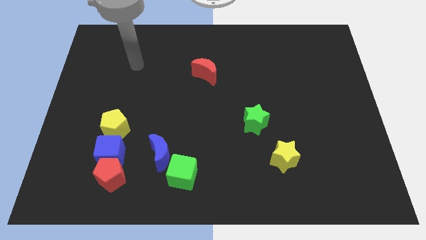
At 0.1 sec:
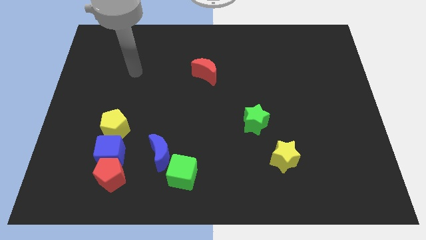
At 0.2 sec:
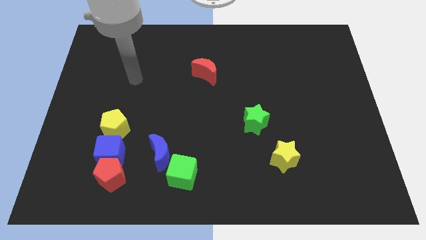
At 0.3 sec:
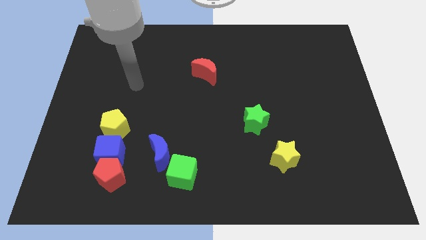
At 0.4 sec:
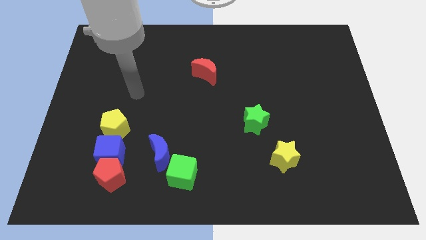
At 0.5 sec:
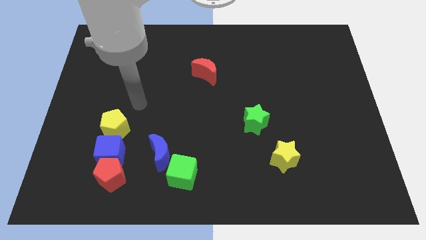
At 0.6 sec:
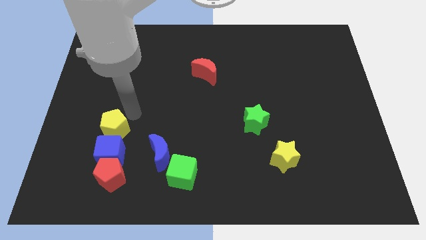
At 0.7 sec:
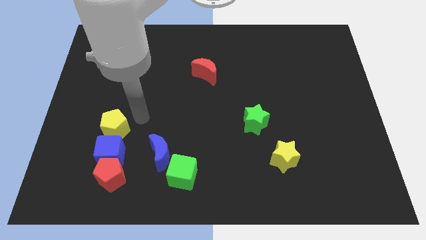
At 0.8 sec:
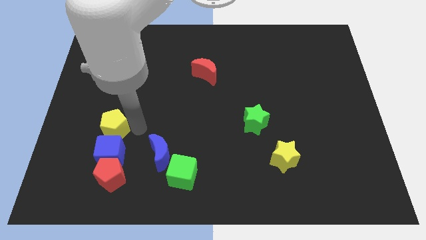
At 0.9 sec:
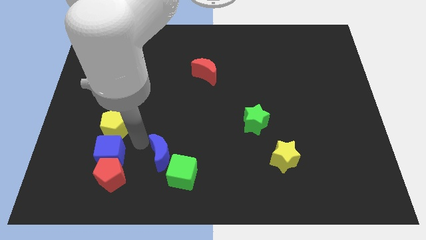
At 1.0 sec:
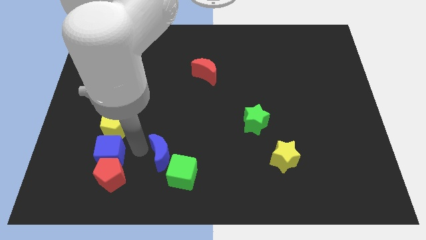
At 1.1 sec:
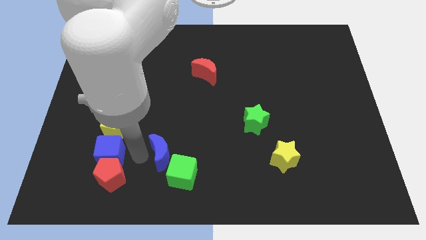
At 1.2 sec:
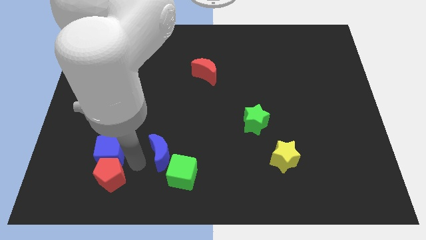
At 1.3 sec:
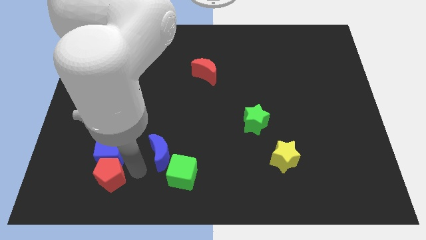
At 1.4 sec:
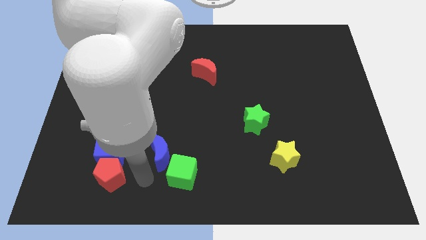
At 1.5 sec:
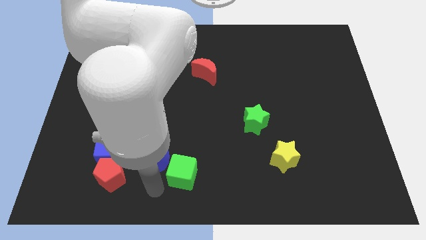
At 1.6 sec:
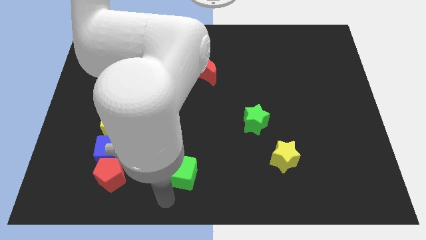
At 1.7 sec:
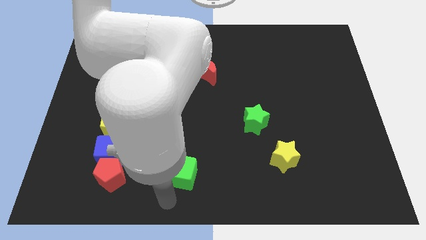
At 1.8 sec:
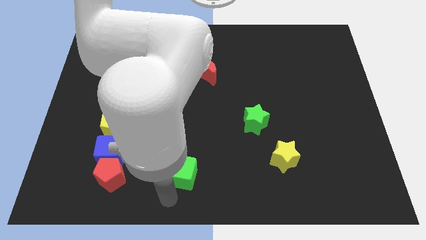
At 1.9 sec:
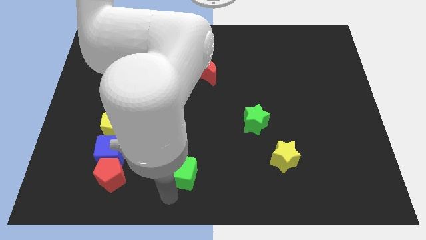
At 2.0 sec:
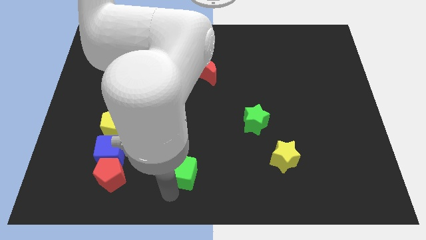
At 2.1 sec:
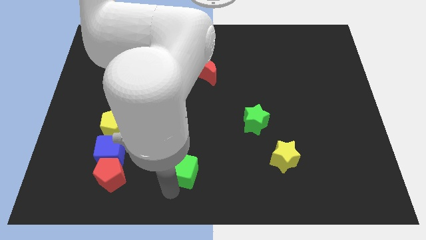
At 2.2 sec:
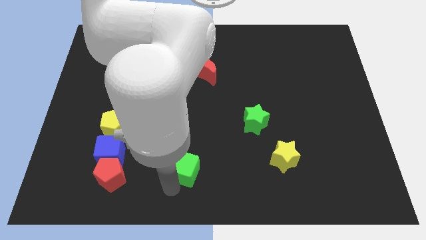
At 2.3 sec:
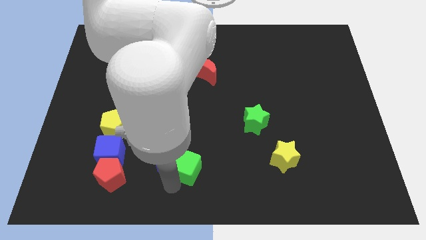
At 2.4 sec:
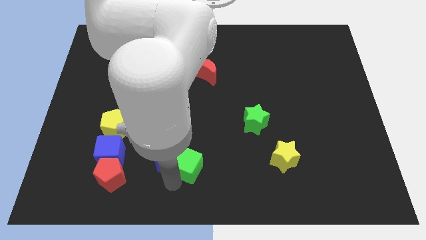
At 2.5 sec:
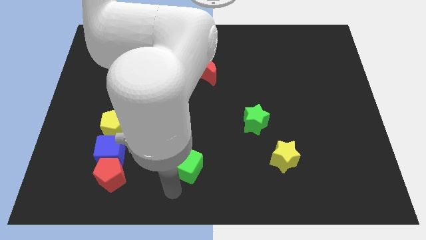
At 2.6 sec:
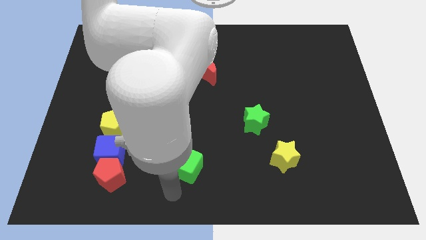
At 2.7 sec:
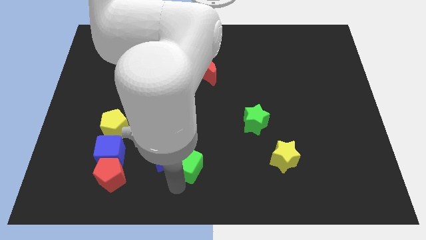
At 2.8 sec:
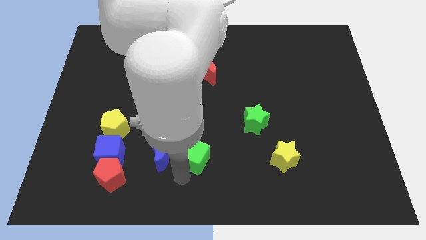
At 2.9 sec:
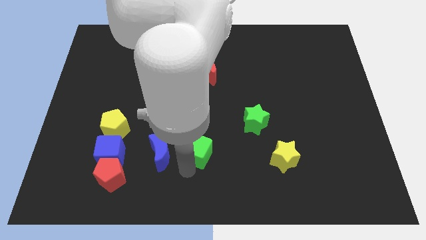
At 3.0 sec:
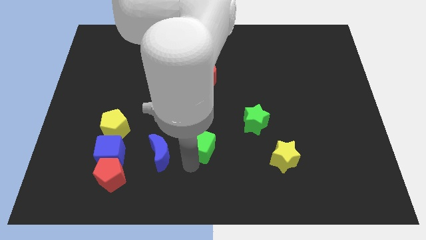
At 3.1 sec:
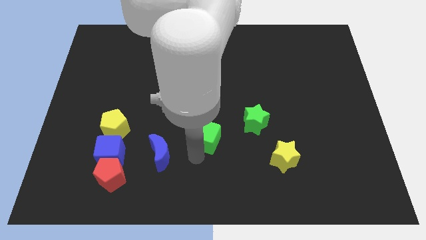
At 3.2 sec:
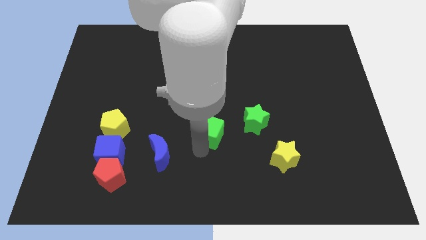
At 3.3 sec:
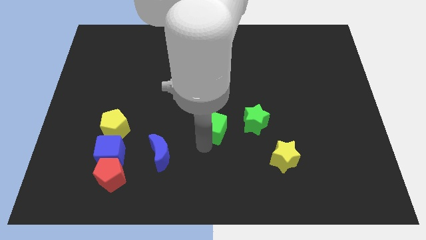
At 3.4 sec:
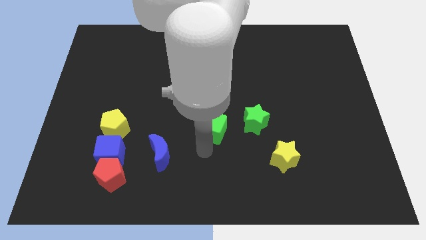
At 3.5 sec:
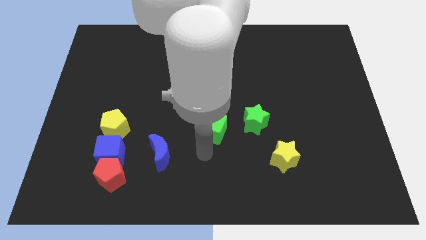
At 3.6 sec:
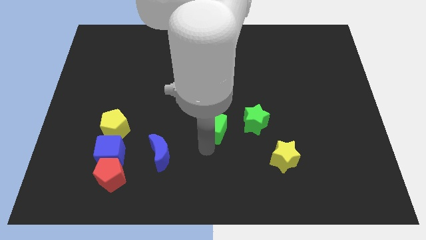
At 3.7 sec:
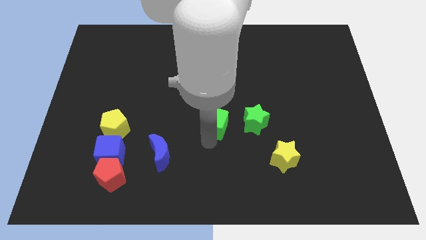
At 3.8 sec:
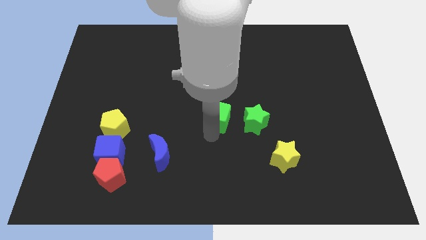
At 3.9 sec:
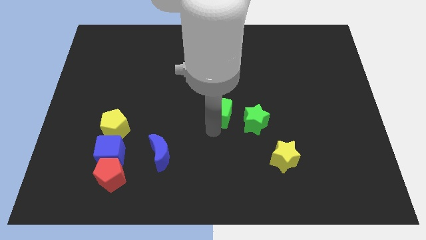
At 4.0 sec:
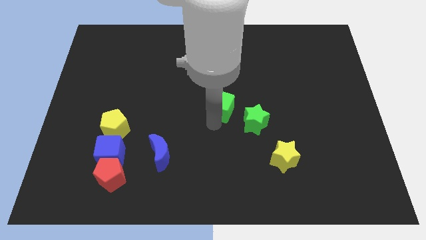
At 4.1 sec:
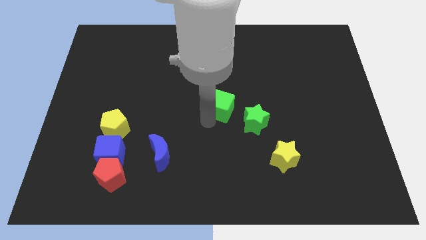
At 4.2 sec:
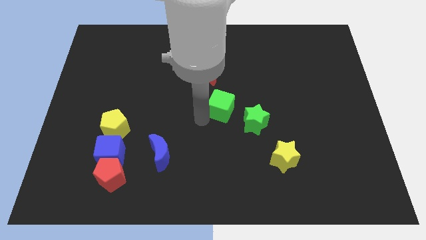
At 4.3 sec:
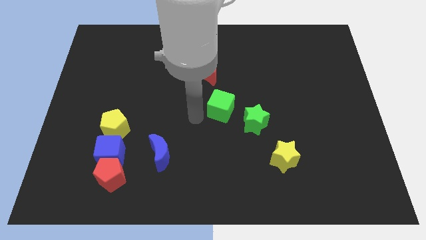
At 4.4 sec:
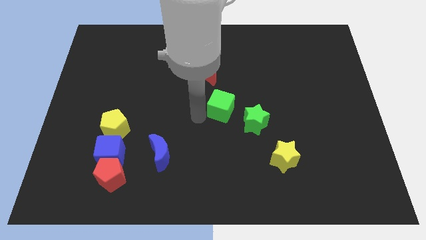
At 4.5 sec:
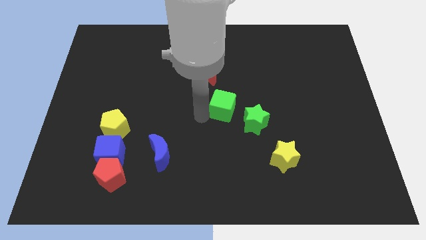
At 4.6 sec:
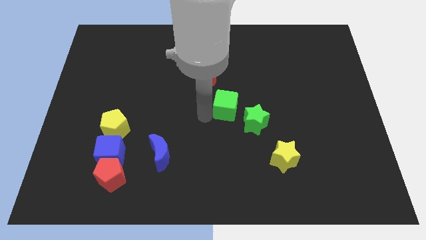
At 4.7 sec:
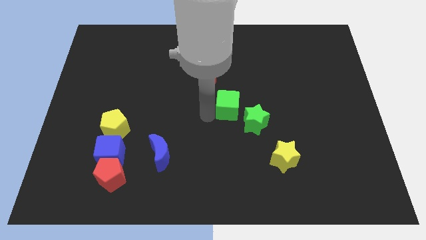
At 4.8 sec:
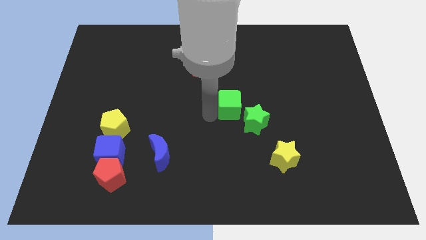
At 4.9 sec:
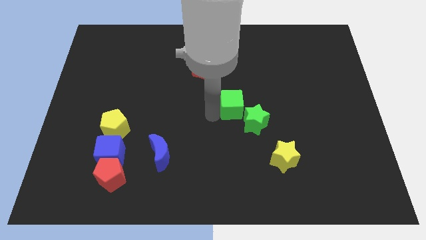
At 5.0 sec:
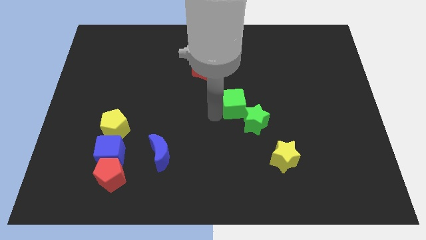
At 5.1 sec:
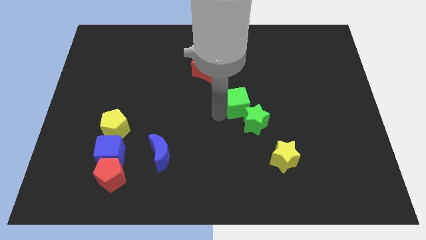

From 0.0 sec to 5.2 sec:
move the green cube up and then right

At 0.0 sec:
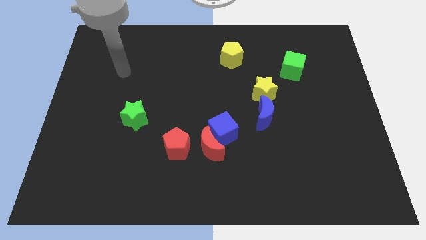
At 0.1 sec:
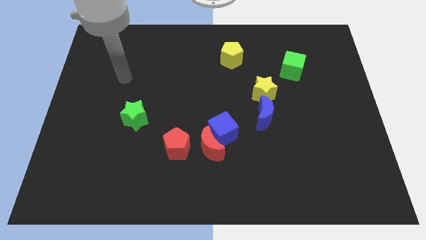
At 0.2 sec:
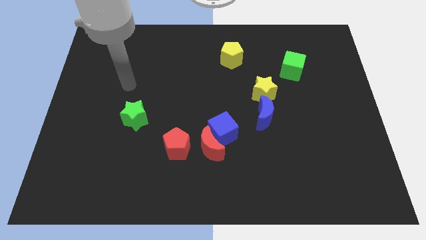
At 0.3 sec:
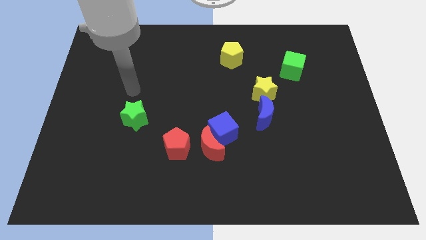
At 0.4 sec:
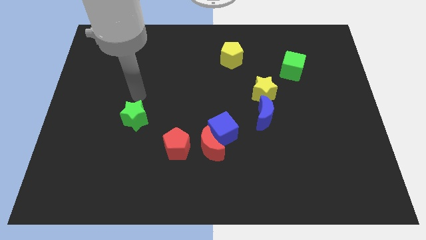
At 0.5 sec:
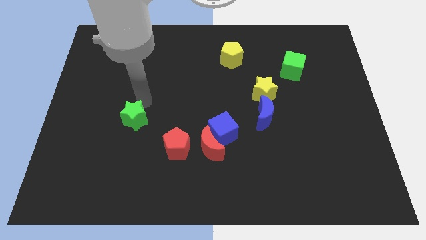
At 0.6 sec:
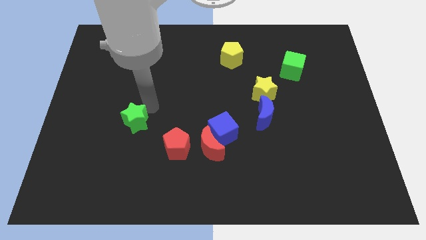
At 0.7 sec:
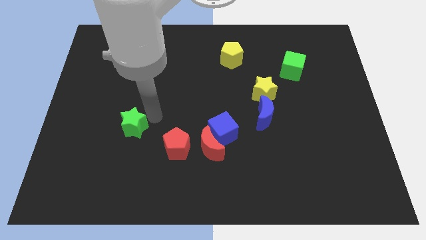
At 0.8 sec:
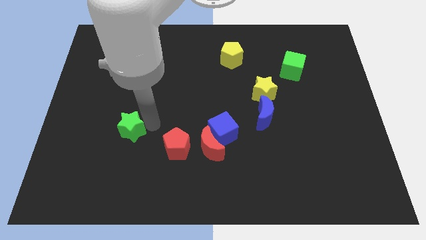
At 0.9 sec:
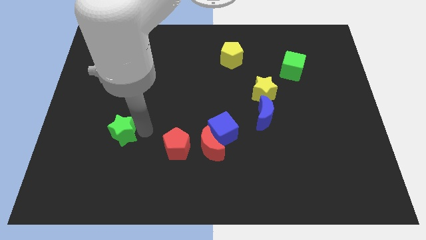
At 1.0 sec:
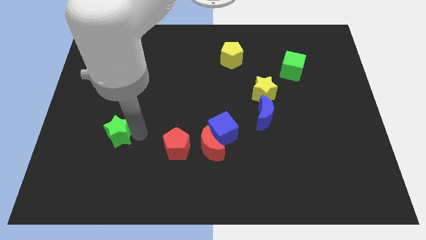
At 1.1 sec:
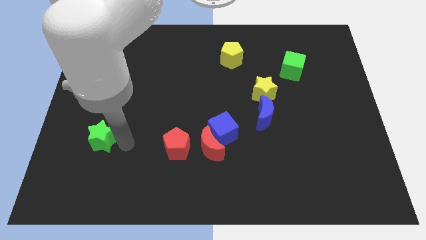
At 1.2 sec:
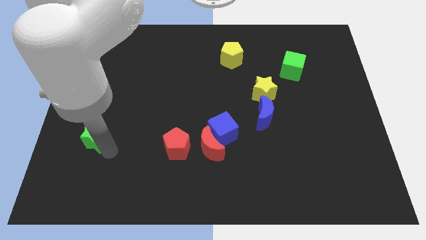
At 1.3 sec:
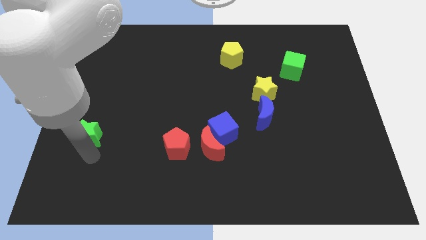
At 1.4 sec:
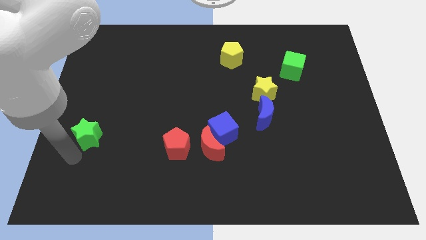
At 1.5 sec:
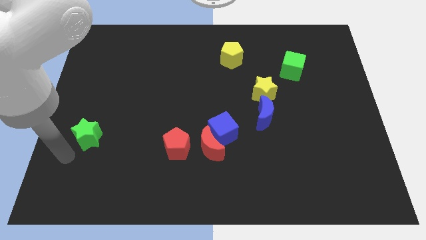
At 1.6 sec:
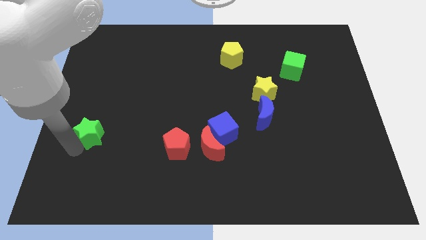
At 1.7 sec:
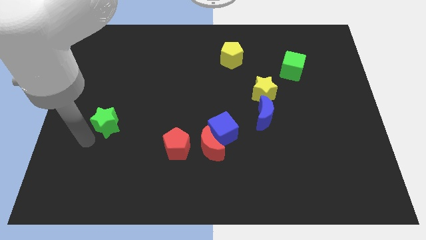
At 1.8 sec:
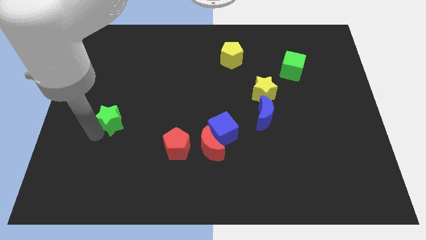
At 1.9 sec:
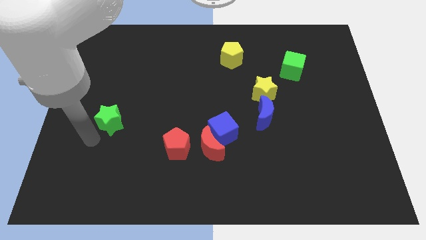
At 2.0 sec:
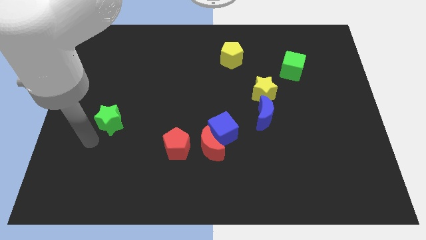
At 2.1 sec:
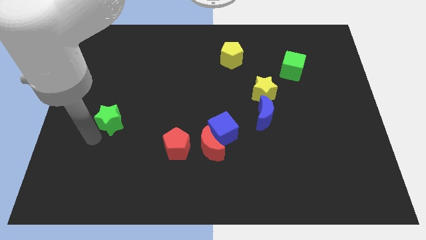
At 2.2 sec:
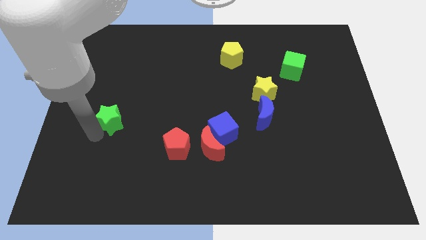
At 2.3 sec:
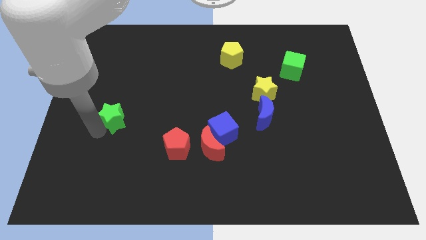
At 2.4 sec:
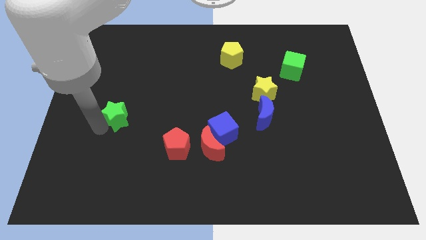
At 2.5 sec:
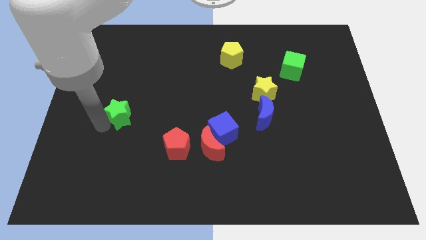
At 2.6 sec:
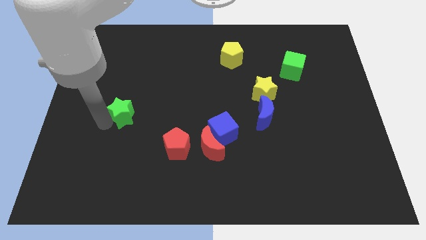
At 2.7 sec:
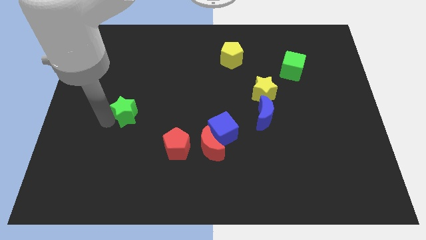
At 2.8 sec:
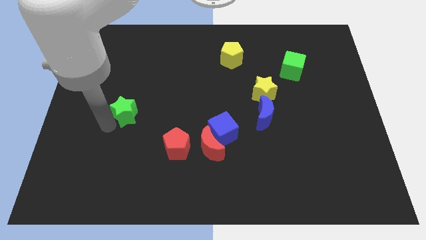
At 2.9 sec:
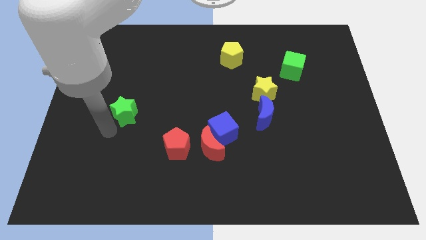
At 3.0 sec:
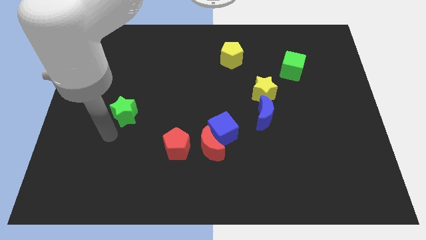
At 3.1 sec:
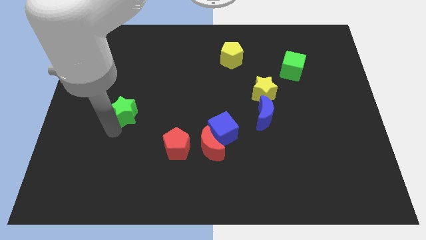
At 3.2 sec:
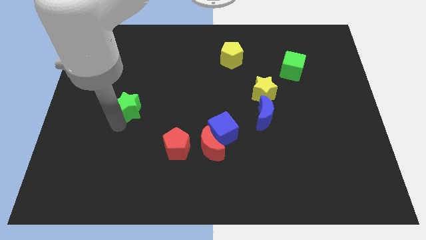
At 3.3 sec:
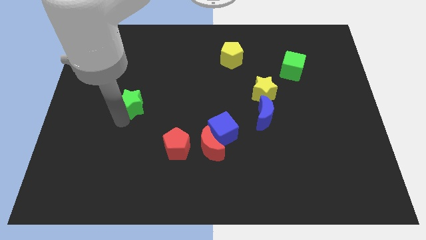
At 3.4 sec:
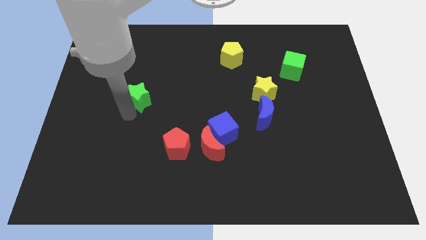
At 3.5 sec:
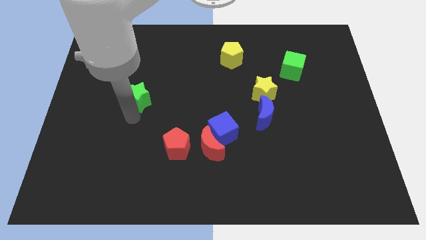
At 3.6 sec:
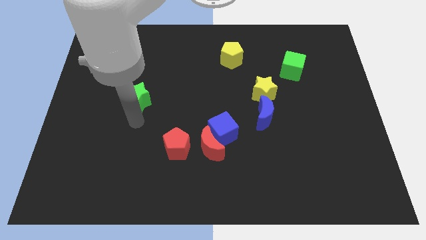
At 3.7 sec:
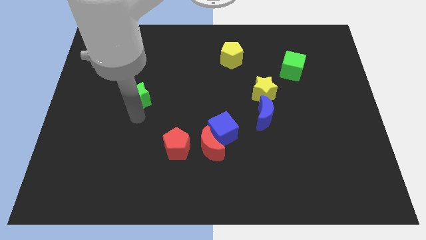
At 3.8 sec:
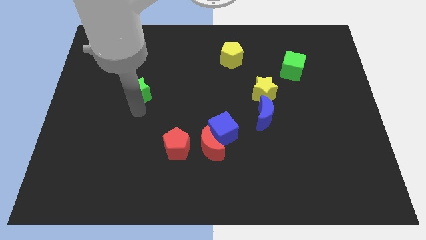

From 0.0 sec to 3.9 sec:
move the green star somewhat upwards
